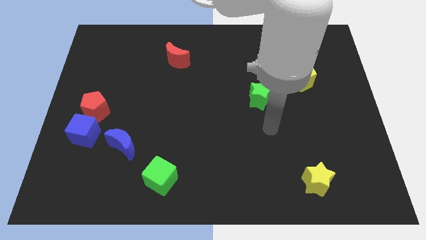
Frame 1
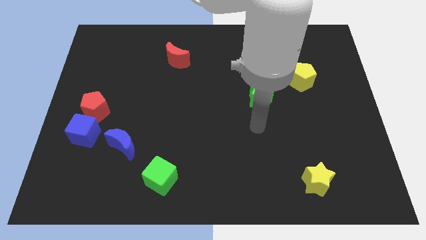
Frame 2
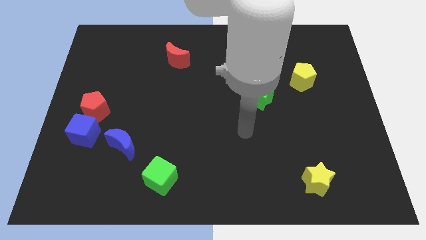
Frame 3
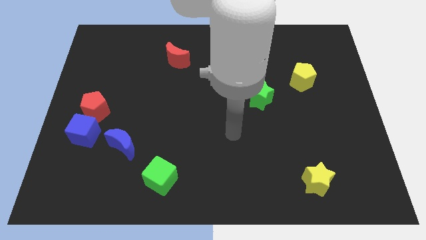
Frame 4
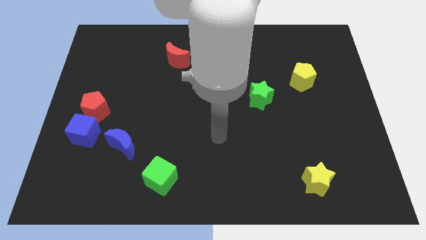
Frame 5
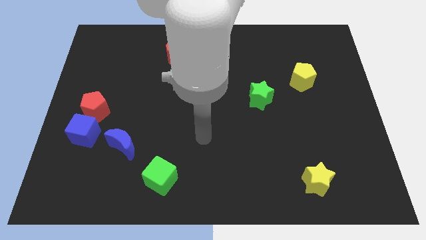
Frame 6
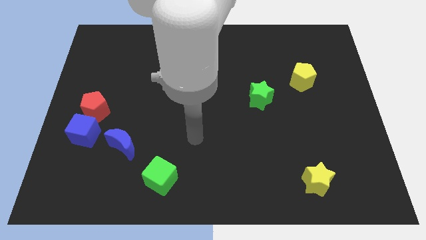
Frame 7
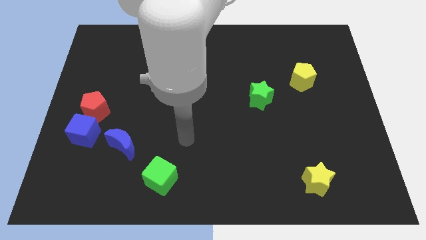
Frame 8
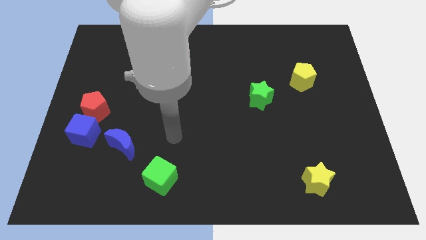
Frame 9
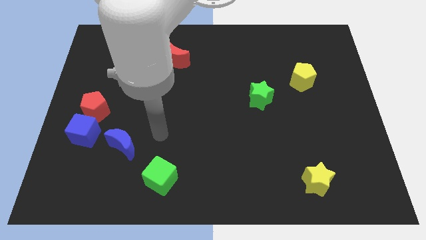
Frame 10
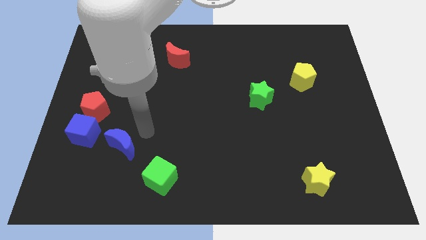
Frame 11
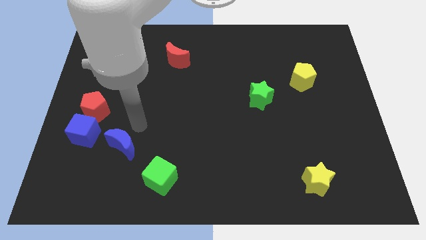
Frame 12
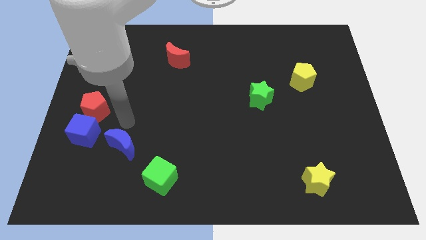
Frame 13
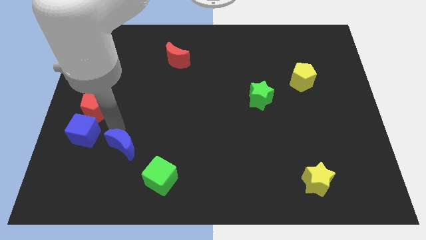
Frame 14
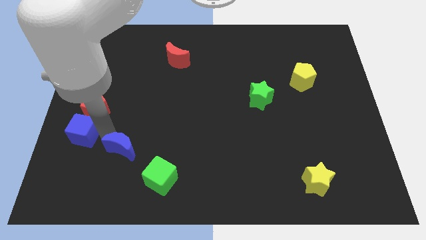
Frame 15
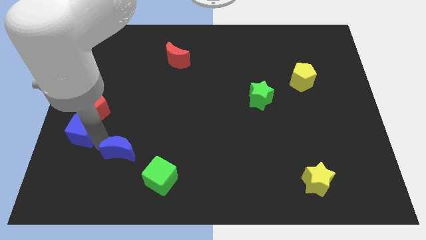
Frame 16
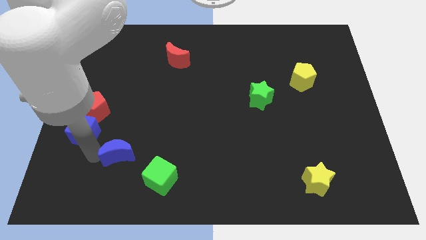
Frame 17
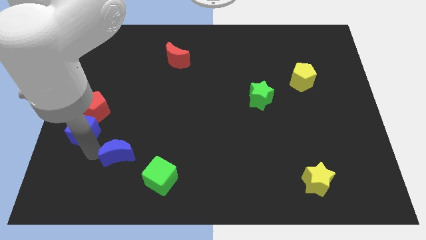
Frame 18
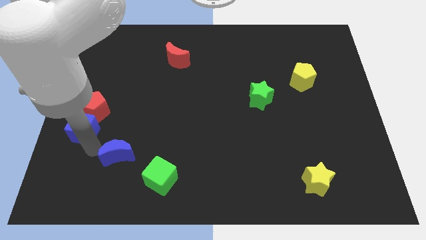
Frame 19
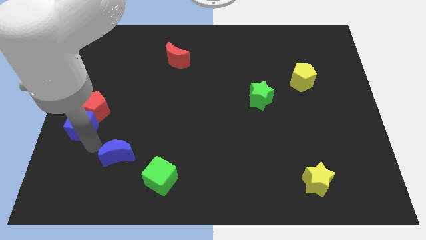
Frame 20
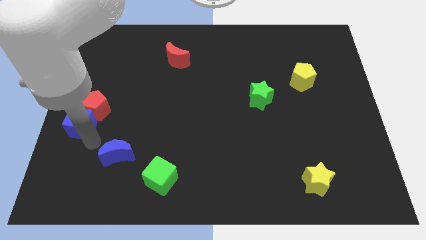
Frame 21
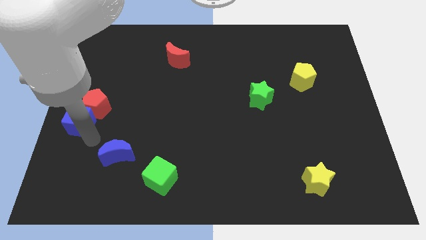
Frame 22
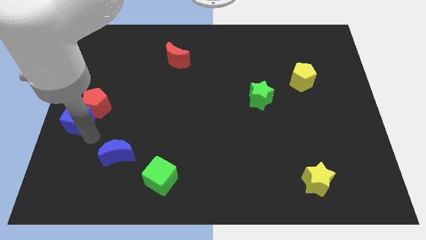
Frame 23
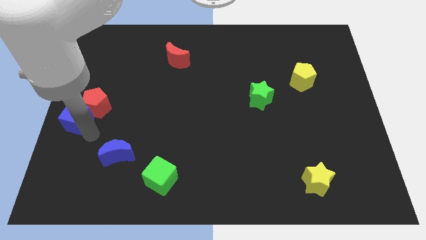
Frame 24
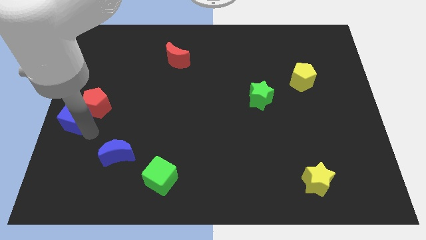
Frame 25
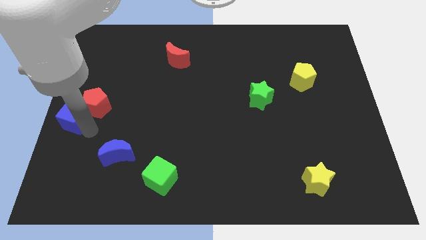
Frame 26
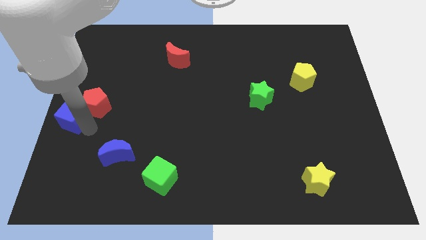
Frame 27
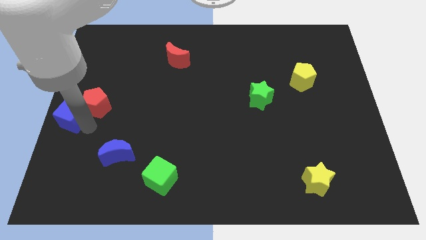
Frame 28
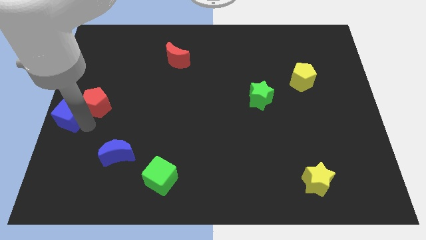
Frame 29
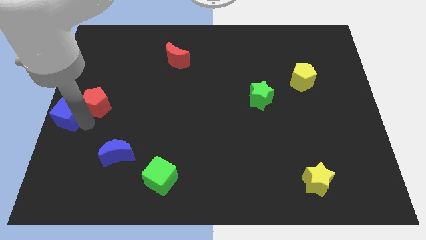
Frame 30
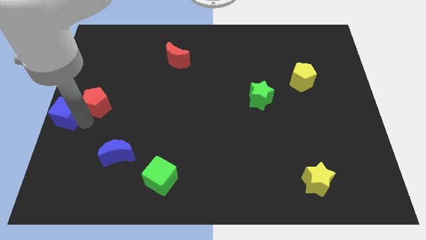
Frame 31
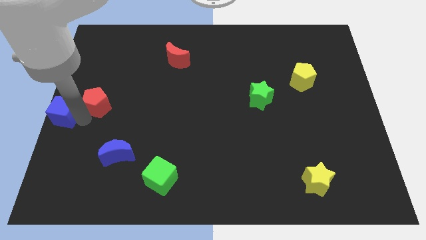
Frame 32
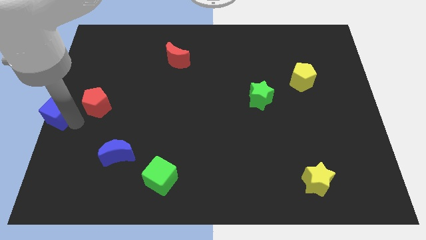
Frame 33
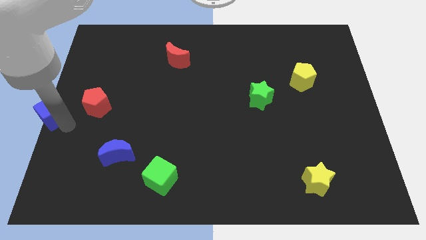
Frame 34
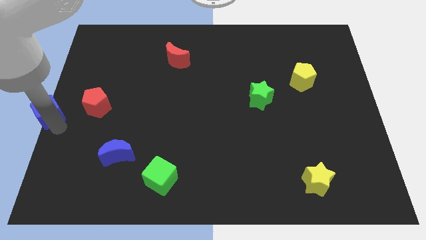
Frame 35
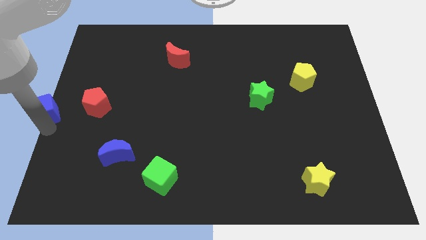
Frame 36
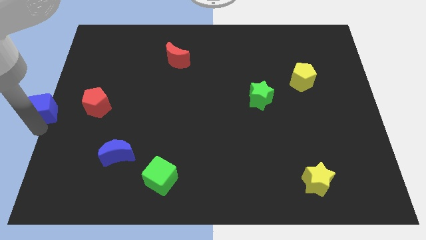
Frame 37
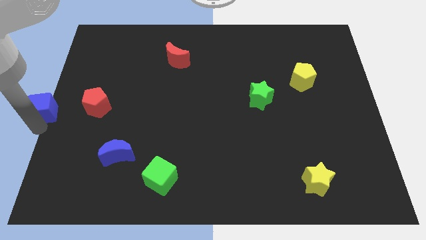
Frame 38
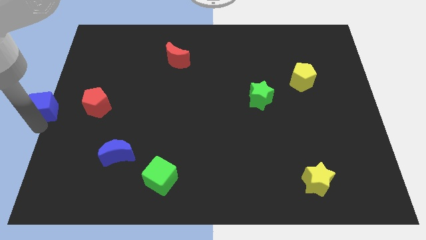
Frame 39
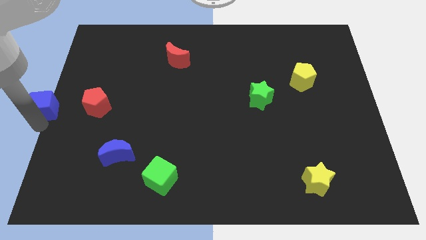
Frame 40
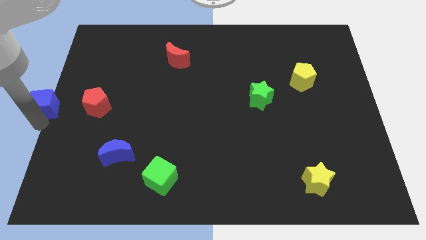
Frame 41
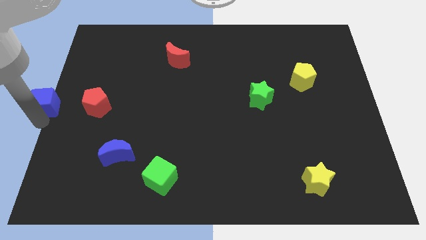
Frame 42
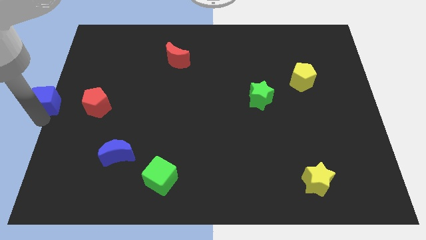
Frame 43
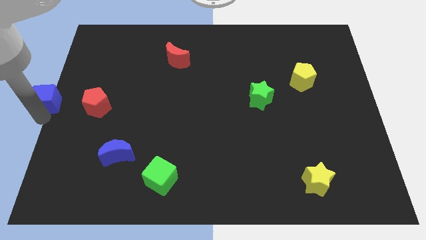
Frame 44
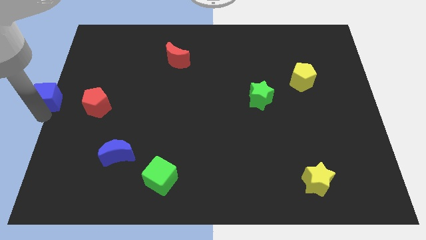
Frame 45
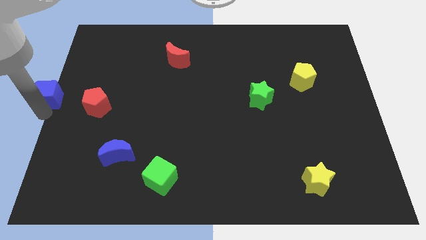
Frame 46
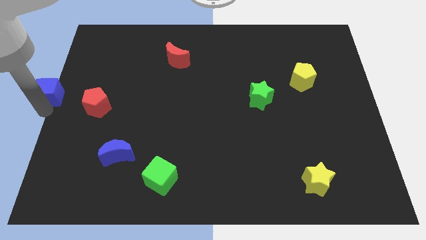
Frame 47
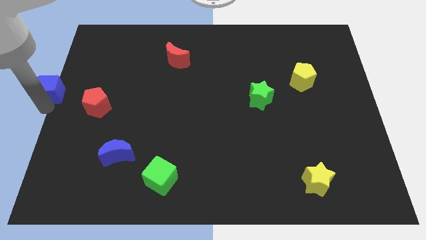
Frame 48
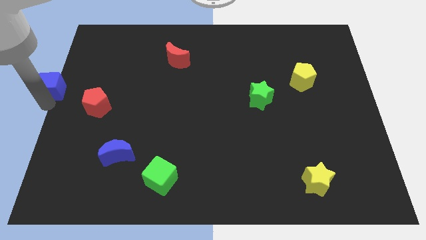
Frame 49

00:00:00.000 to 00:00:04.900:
slightly move the blue cube up

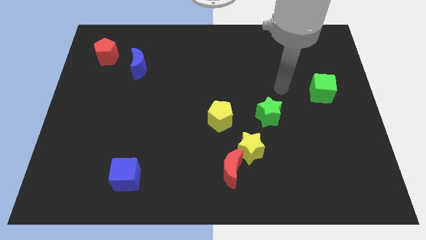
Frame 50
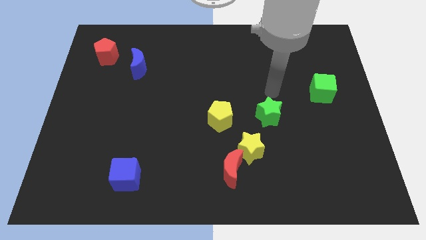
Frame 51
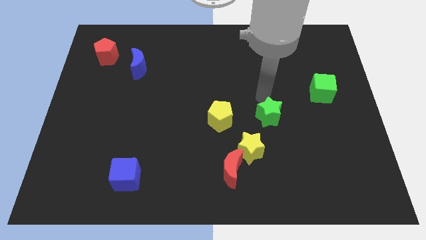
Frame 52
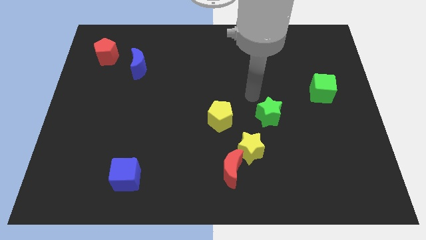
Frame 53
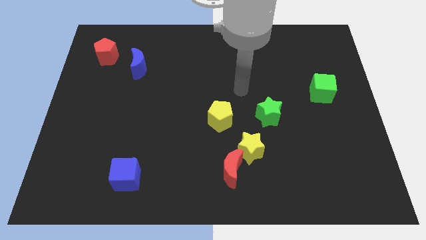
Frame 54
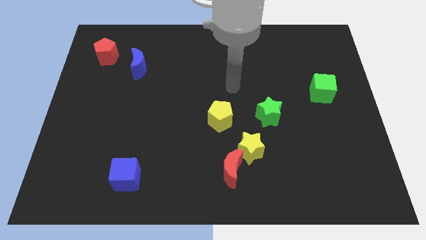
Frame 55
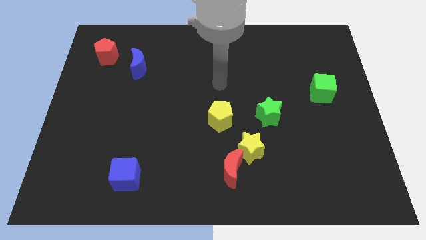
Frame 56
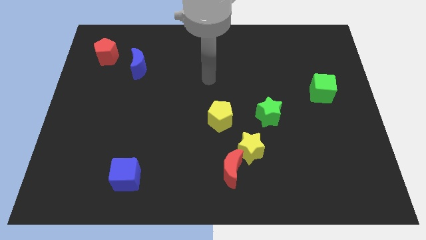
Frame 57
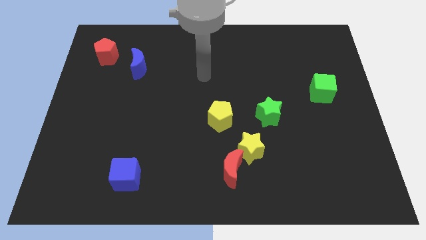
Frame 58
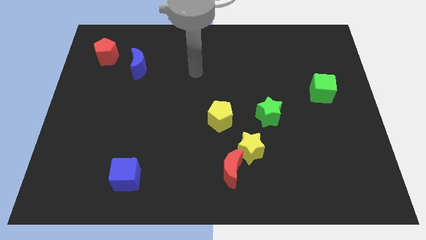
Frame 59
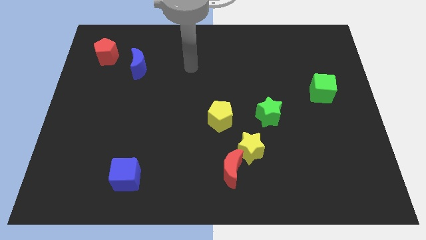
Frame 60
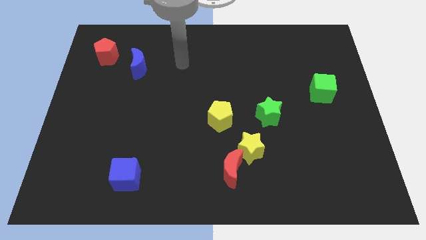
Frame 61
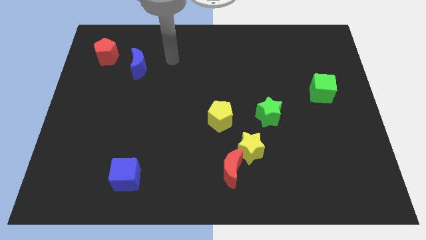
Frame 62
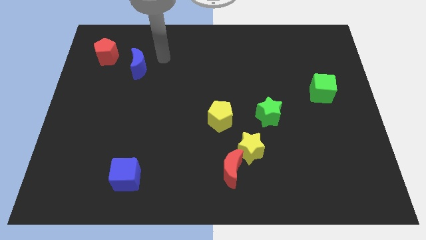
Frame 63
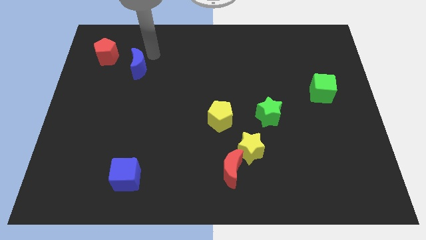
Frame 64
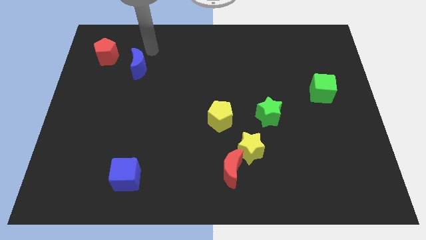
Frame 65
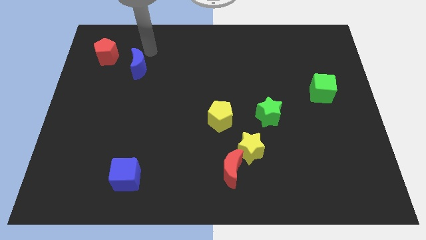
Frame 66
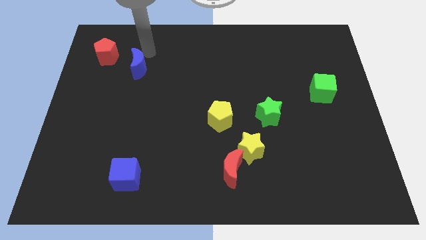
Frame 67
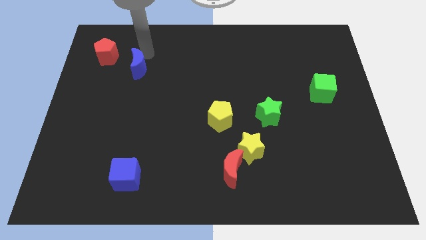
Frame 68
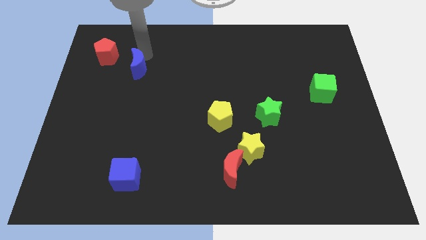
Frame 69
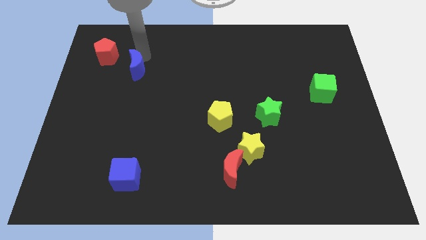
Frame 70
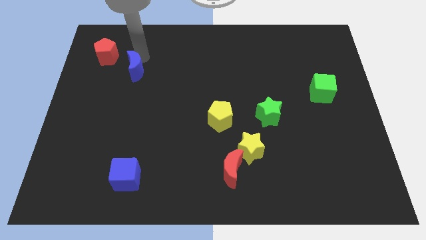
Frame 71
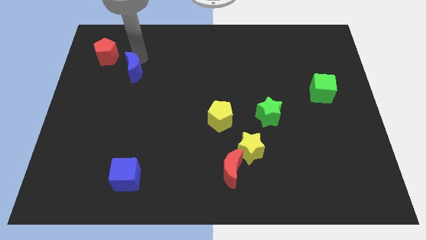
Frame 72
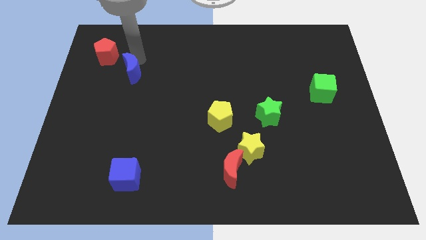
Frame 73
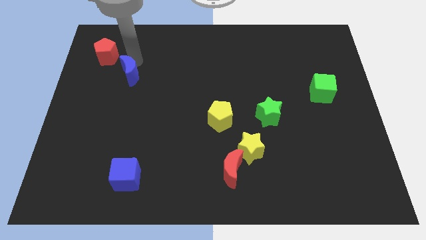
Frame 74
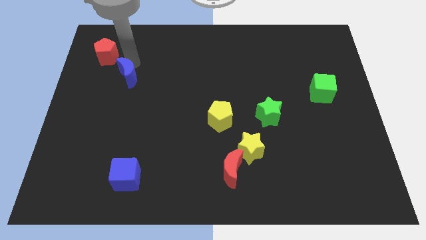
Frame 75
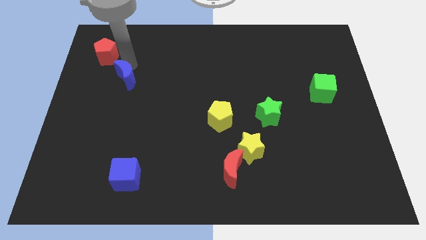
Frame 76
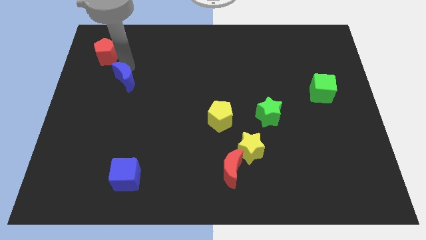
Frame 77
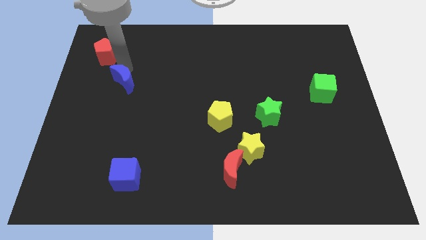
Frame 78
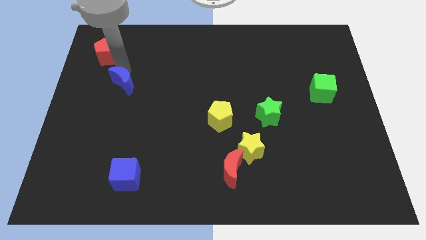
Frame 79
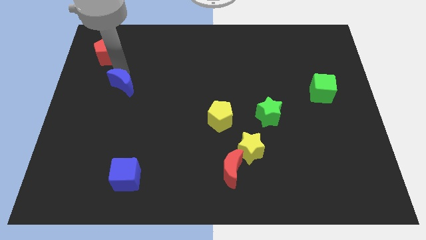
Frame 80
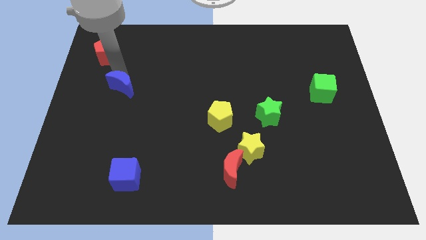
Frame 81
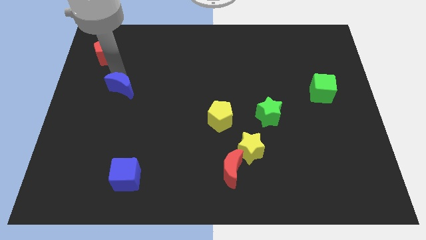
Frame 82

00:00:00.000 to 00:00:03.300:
slightly slide the blue moon downwards

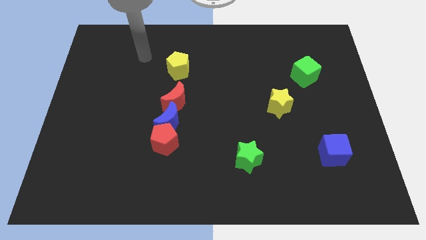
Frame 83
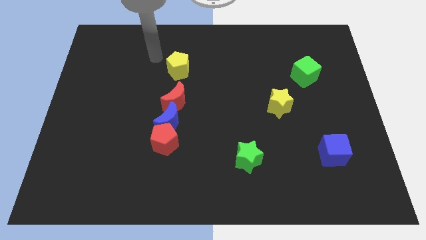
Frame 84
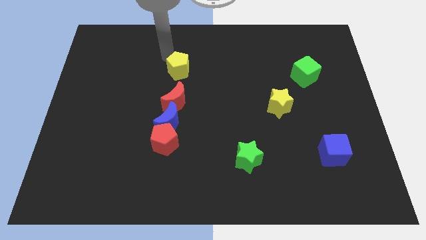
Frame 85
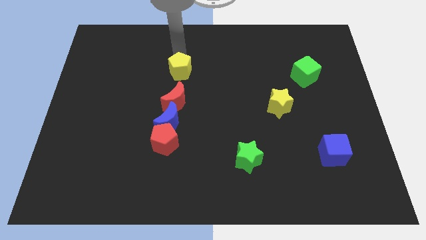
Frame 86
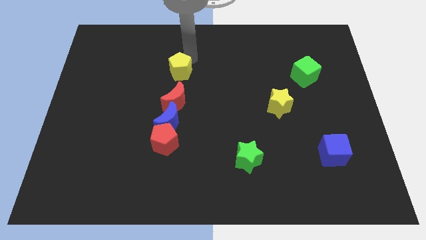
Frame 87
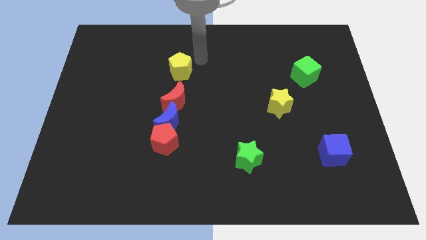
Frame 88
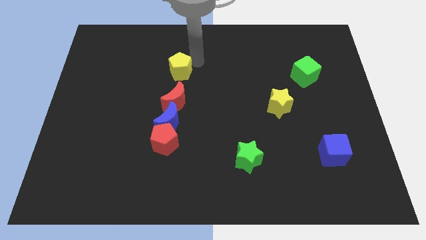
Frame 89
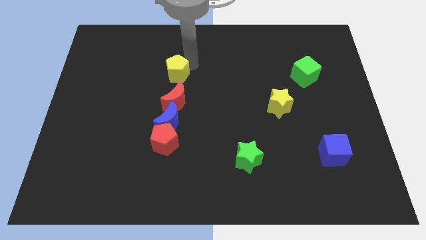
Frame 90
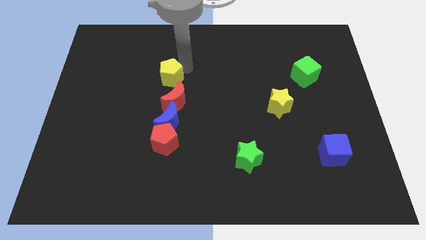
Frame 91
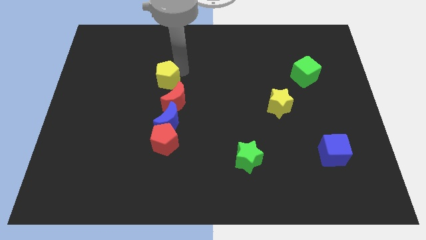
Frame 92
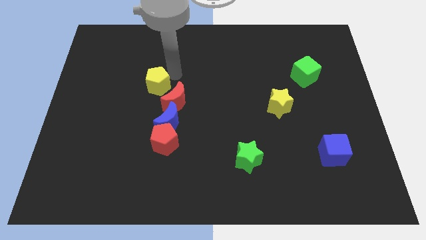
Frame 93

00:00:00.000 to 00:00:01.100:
slightly push the yellow pentagon downwards and left
